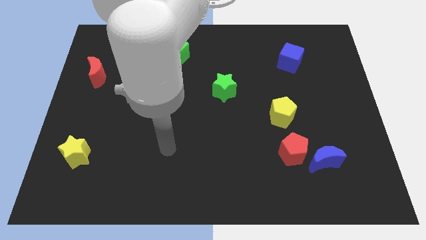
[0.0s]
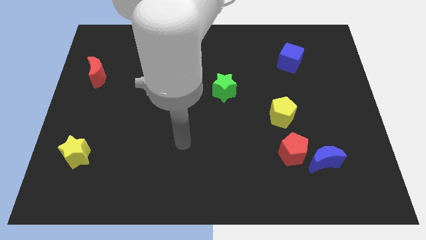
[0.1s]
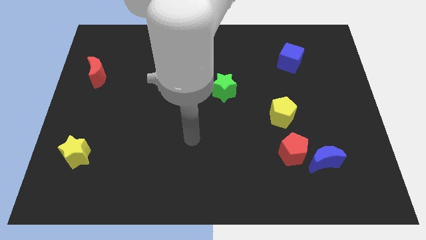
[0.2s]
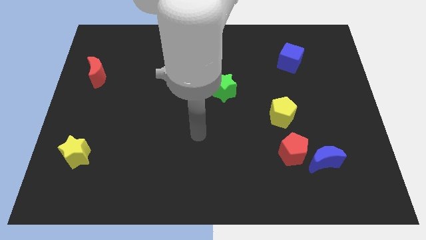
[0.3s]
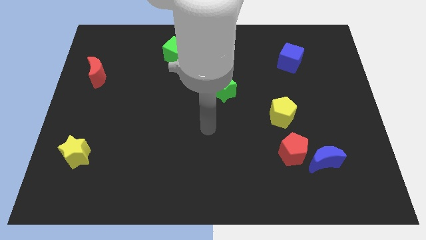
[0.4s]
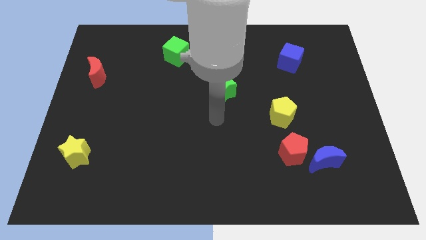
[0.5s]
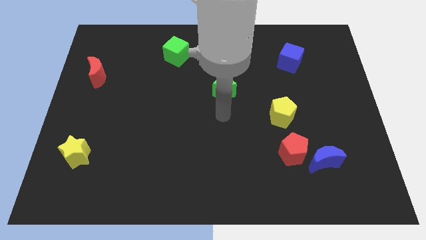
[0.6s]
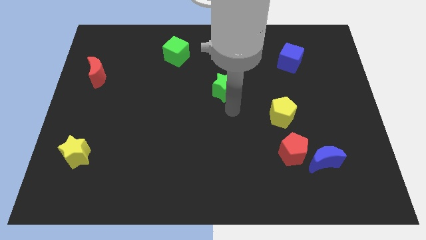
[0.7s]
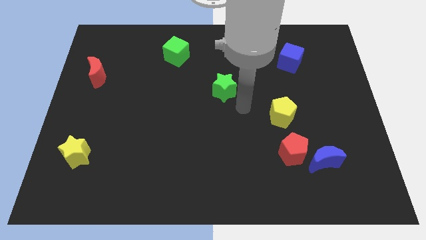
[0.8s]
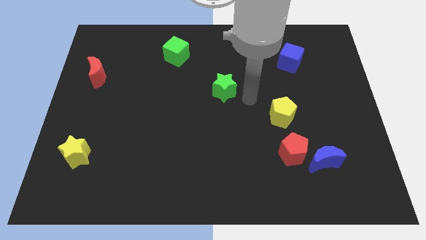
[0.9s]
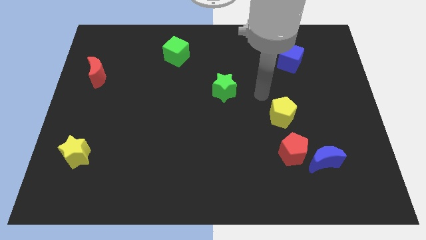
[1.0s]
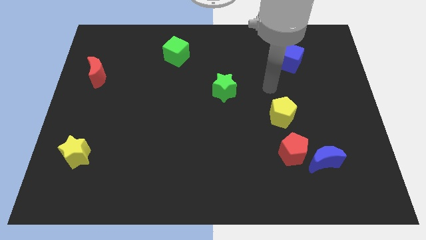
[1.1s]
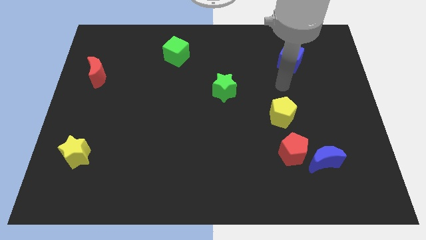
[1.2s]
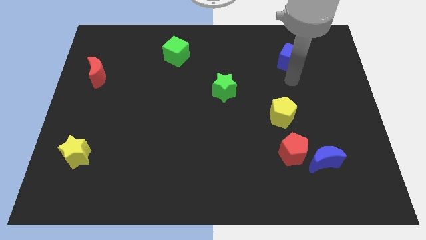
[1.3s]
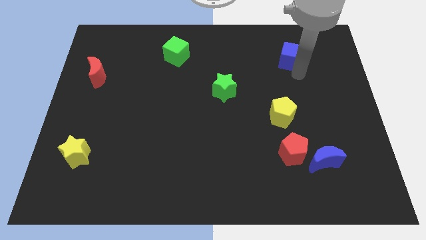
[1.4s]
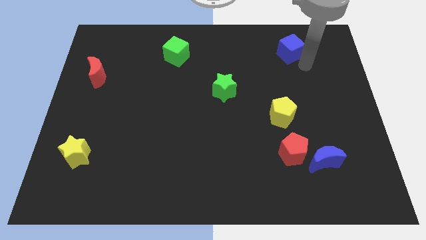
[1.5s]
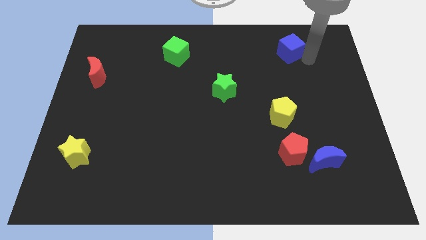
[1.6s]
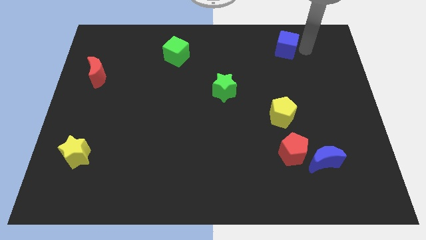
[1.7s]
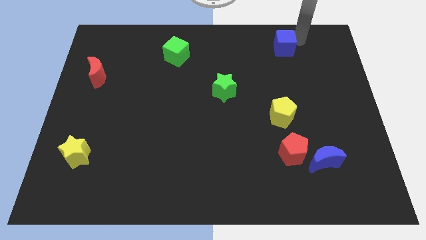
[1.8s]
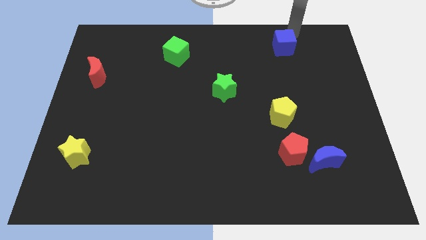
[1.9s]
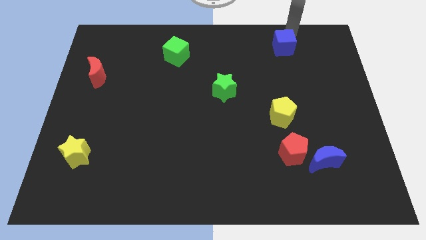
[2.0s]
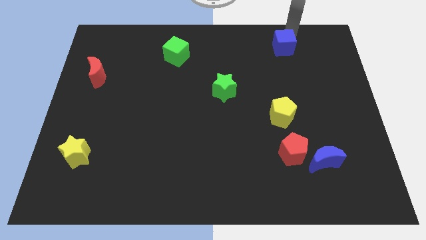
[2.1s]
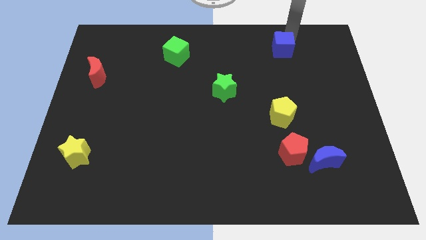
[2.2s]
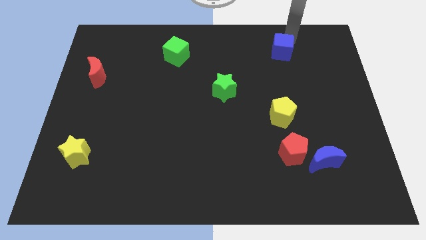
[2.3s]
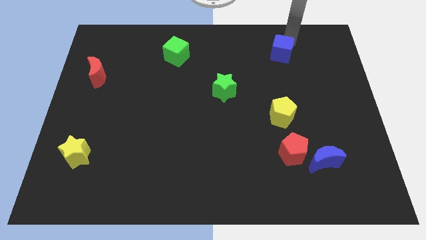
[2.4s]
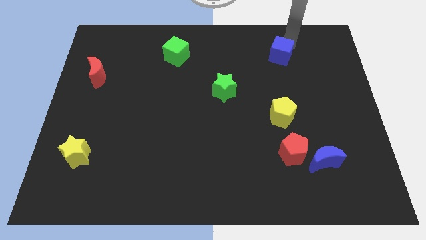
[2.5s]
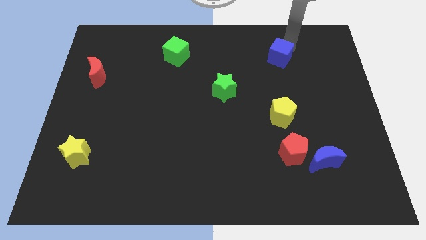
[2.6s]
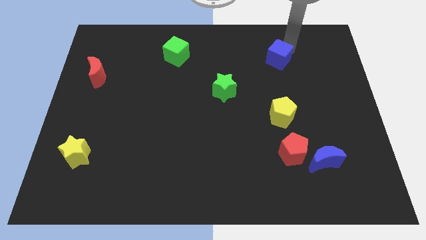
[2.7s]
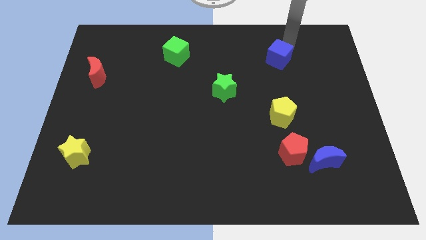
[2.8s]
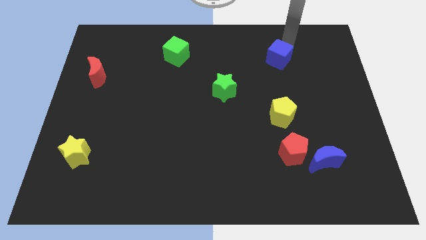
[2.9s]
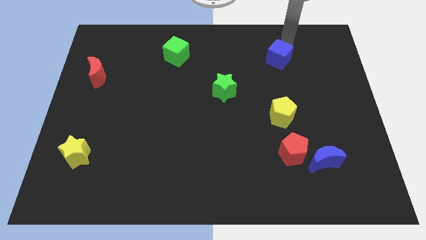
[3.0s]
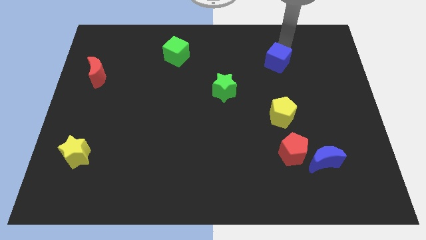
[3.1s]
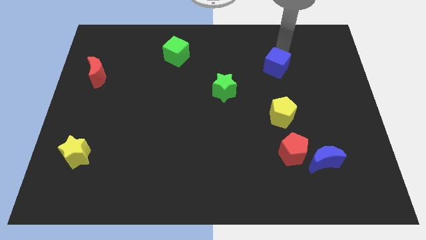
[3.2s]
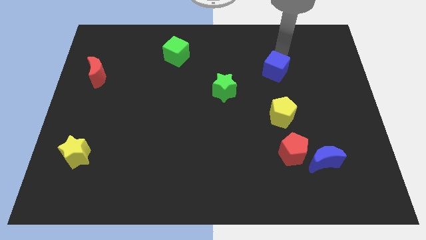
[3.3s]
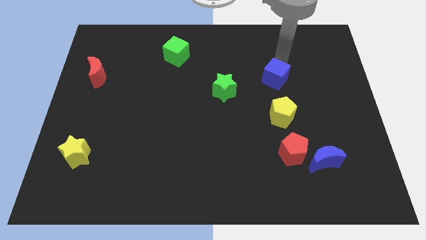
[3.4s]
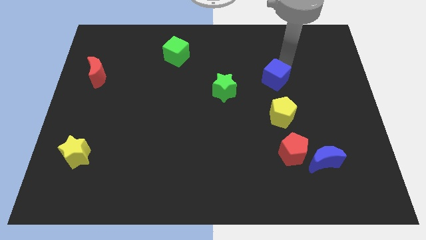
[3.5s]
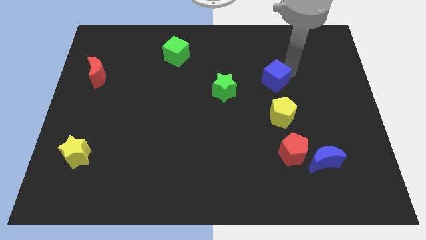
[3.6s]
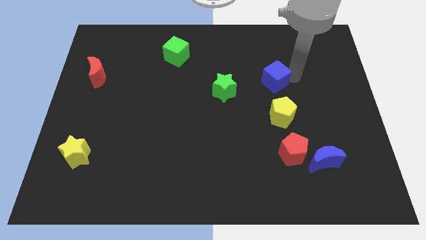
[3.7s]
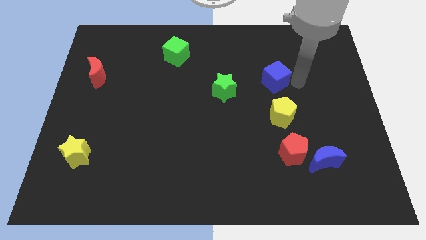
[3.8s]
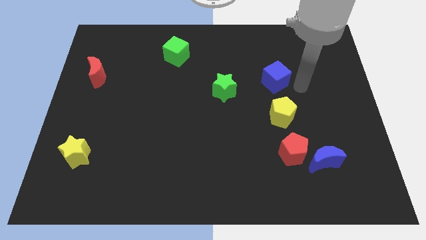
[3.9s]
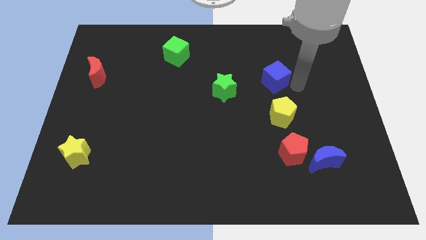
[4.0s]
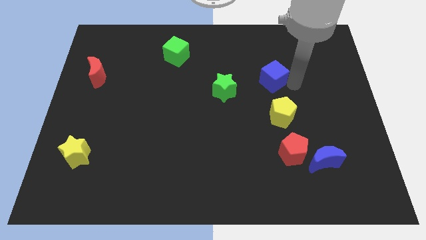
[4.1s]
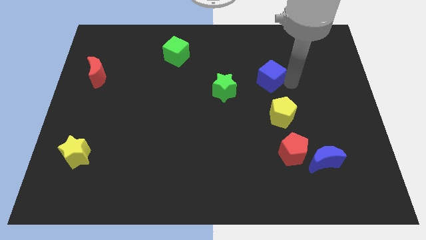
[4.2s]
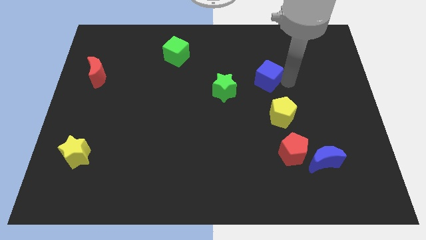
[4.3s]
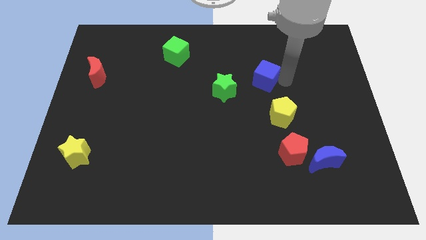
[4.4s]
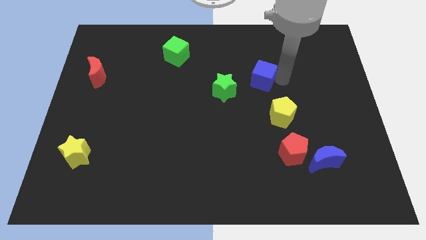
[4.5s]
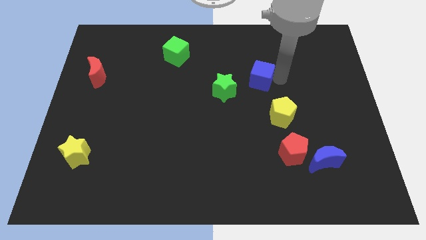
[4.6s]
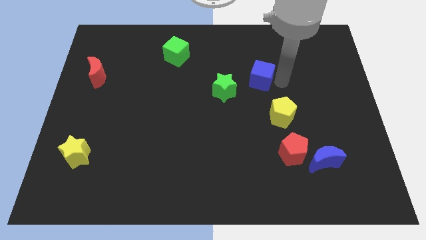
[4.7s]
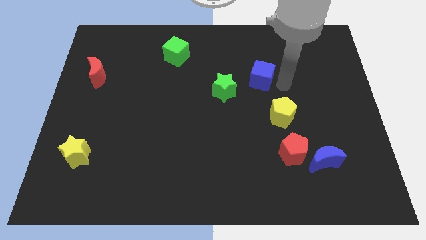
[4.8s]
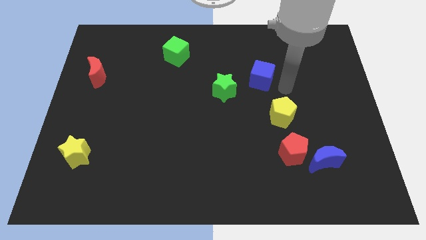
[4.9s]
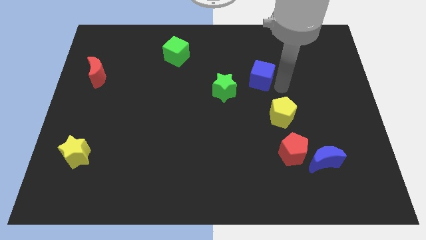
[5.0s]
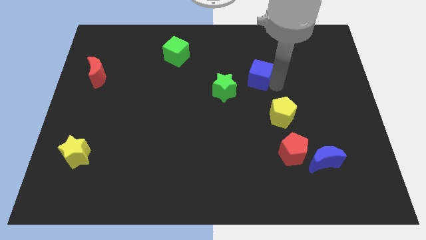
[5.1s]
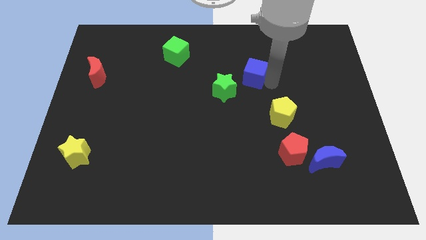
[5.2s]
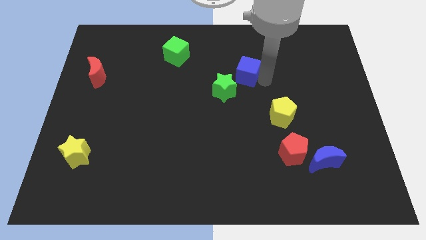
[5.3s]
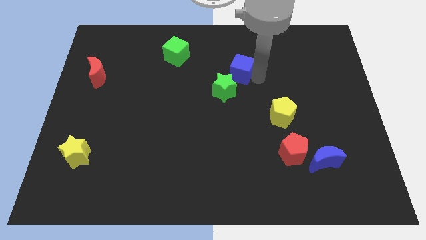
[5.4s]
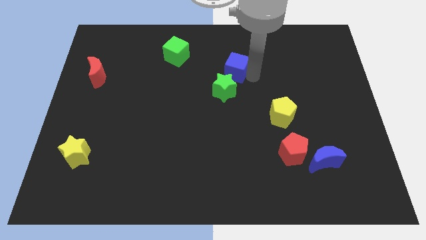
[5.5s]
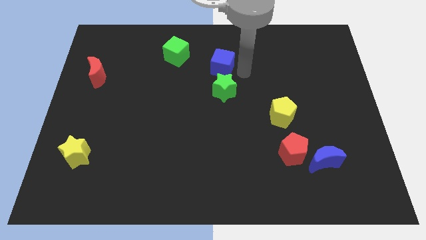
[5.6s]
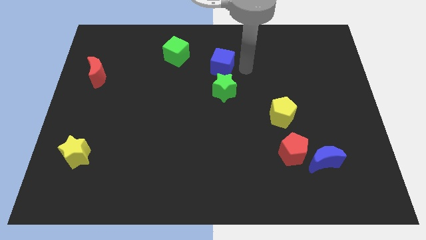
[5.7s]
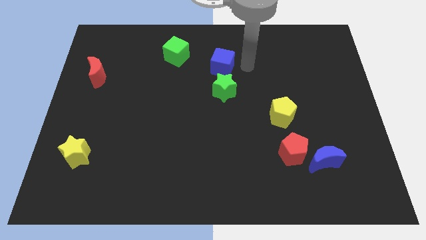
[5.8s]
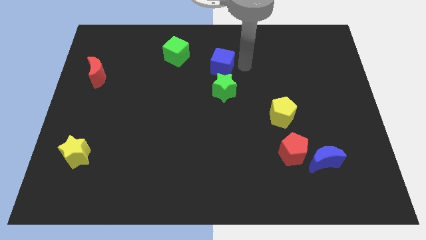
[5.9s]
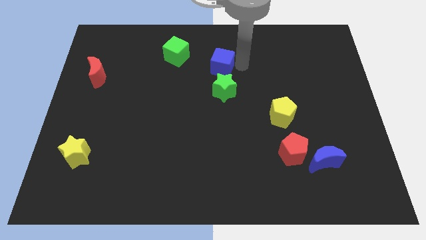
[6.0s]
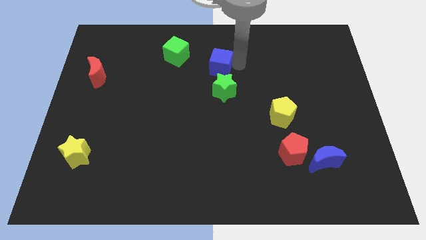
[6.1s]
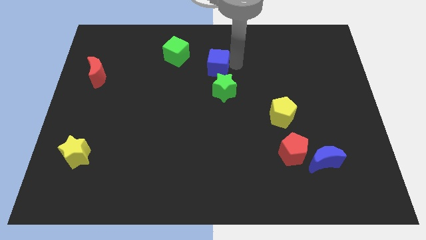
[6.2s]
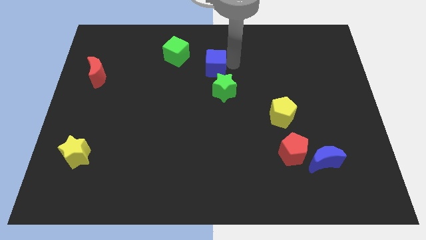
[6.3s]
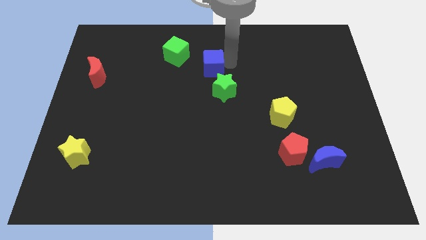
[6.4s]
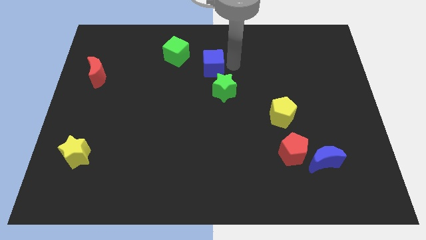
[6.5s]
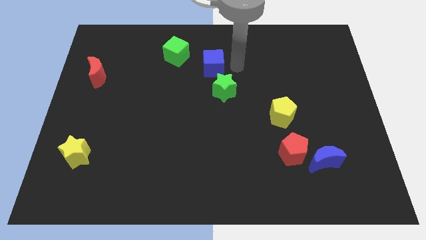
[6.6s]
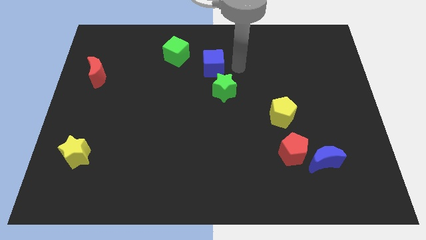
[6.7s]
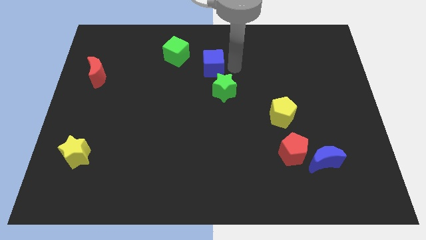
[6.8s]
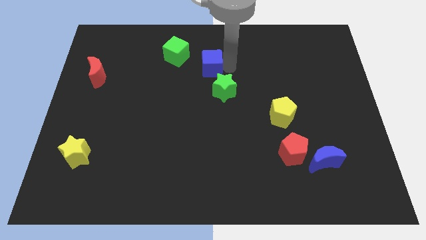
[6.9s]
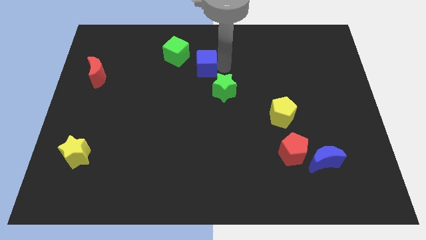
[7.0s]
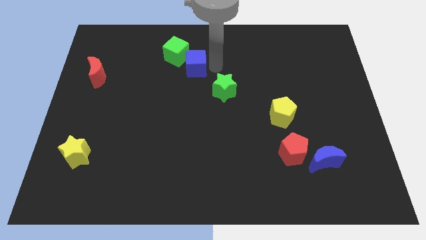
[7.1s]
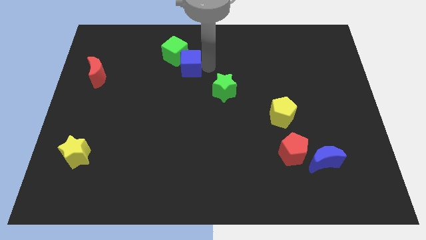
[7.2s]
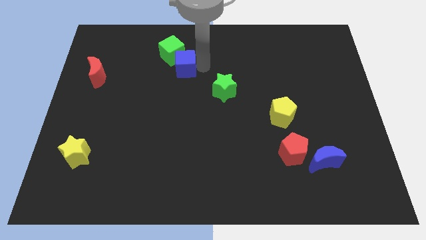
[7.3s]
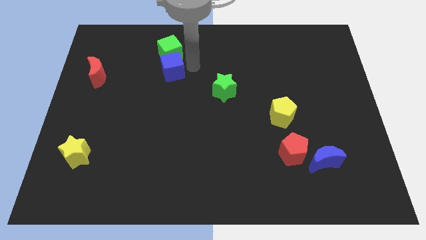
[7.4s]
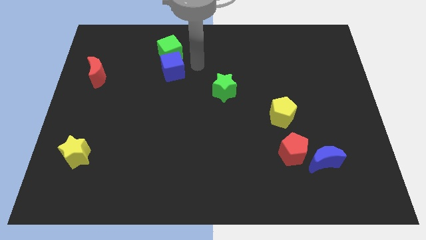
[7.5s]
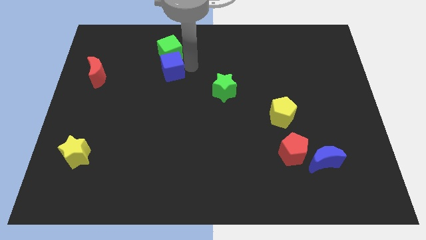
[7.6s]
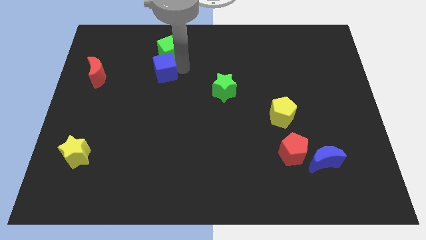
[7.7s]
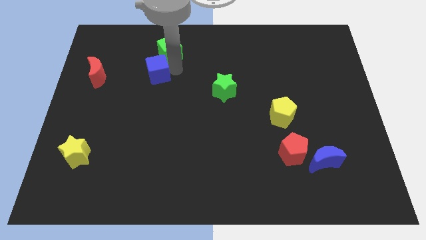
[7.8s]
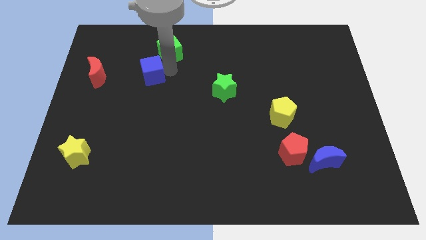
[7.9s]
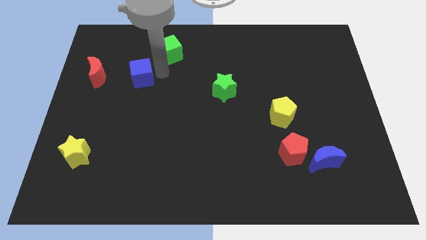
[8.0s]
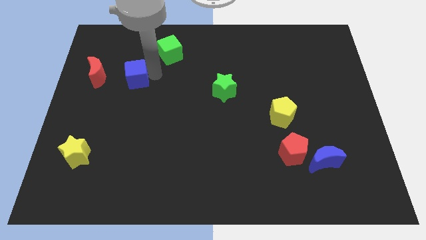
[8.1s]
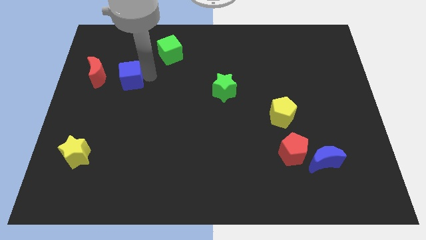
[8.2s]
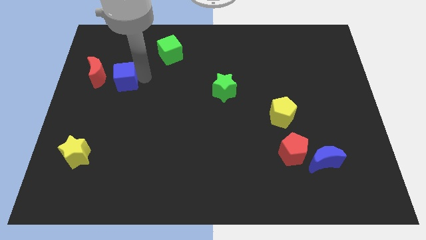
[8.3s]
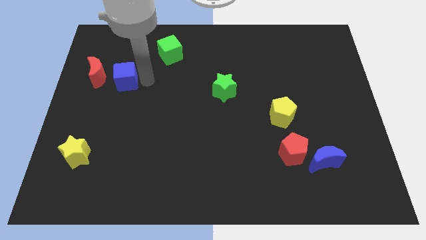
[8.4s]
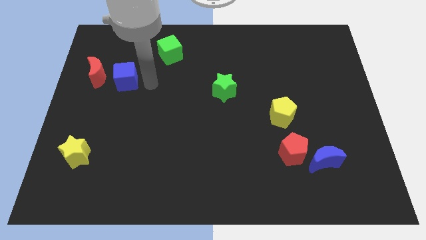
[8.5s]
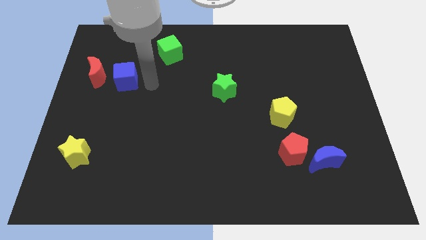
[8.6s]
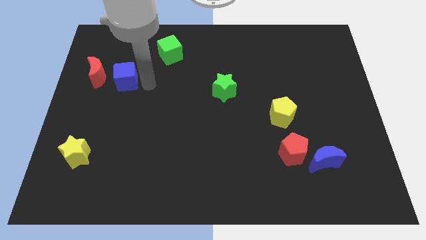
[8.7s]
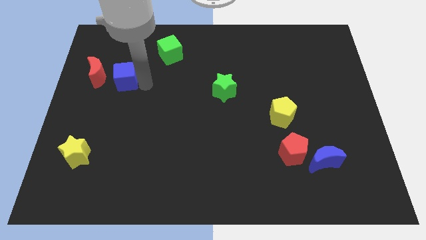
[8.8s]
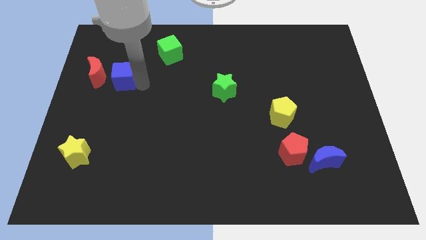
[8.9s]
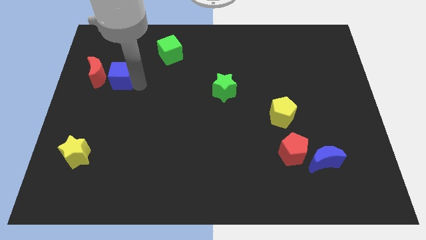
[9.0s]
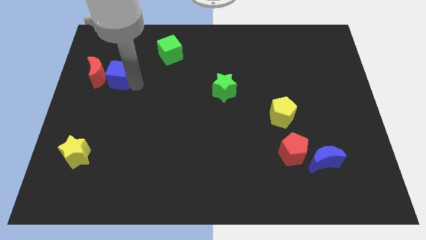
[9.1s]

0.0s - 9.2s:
slide the blue cube close to the red moon
